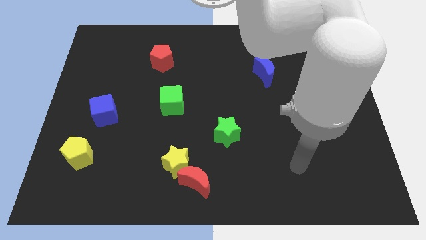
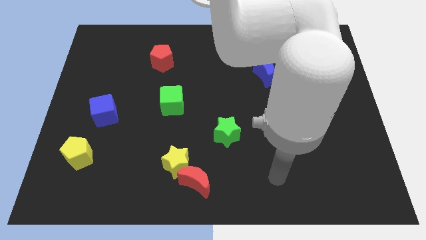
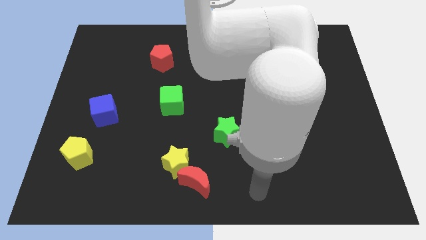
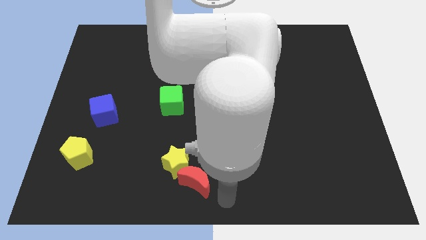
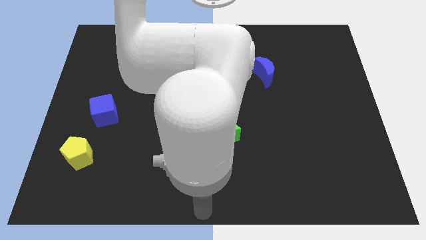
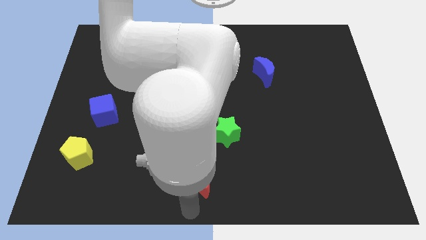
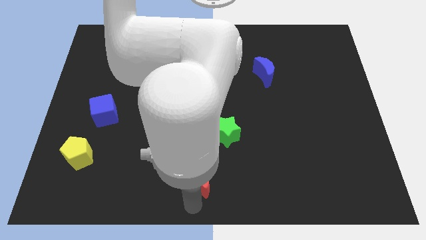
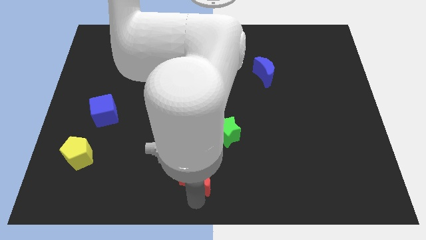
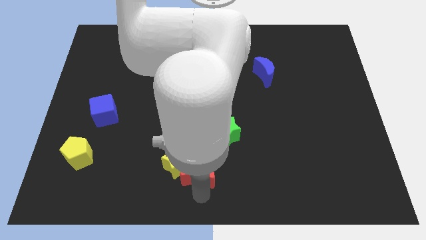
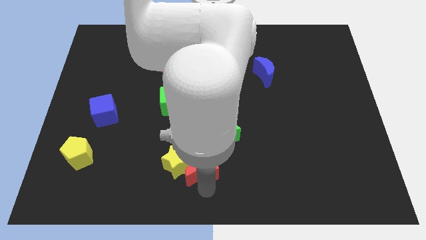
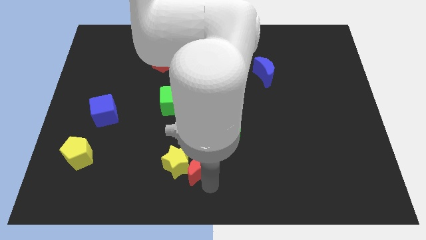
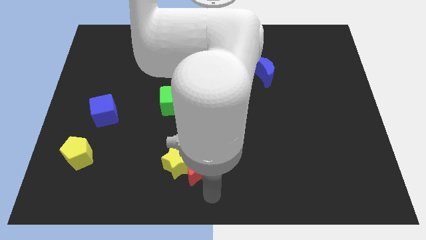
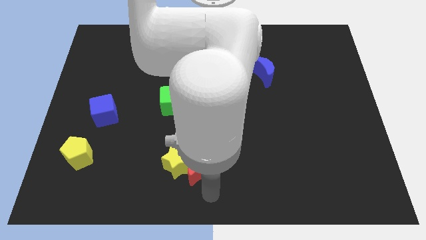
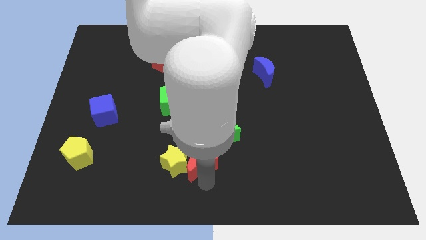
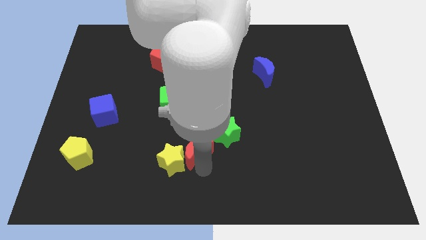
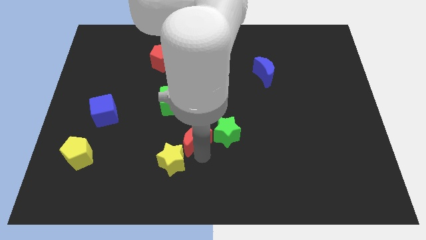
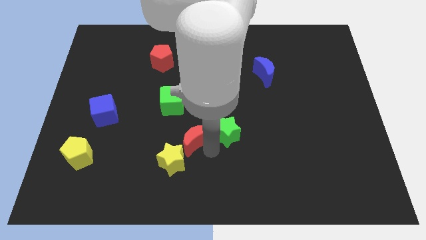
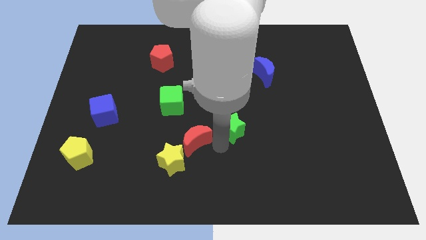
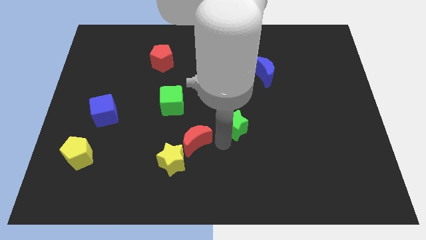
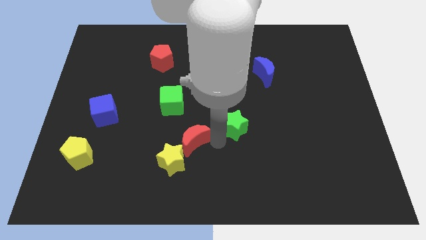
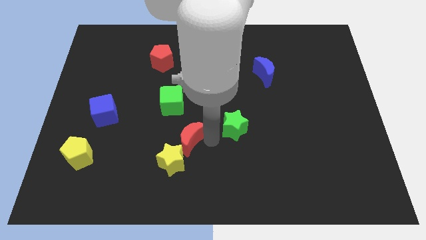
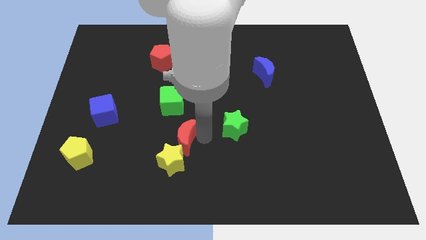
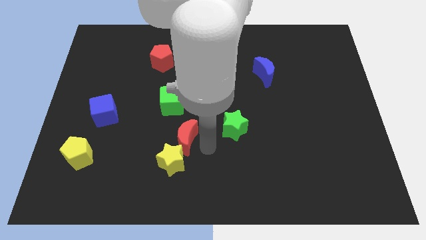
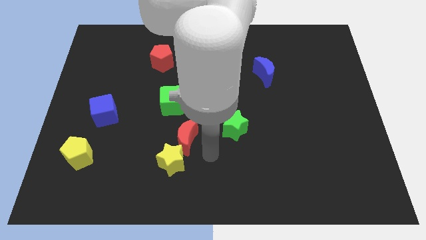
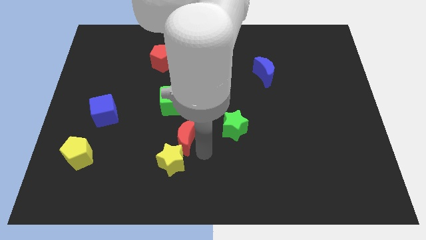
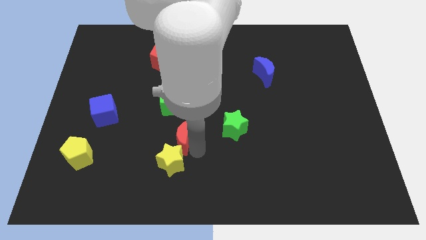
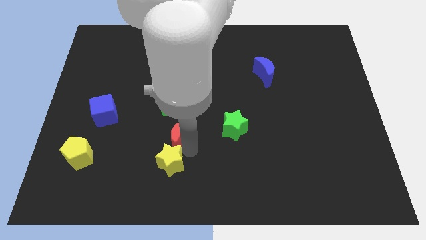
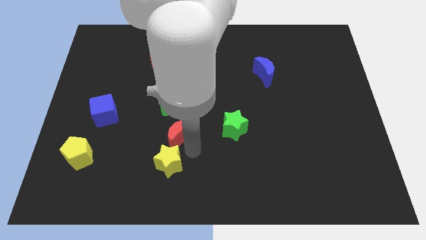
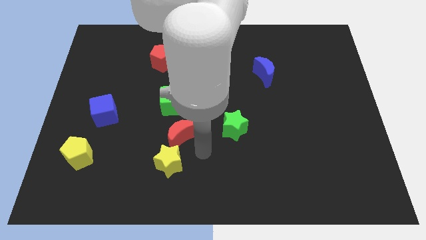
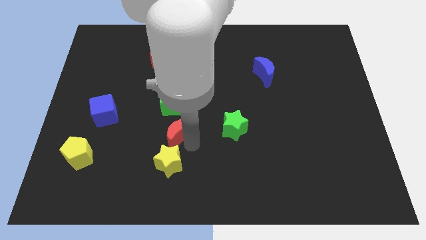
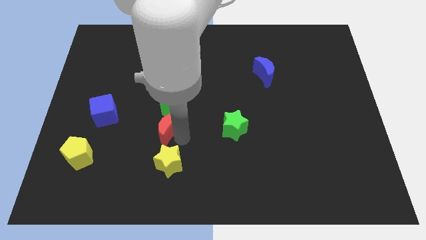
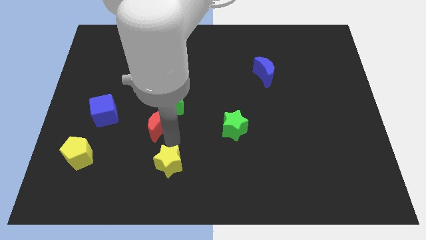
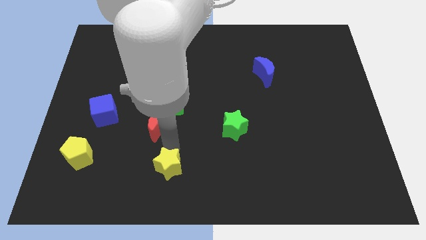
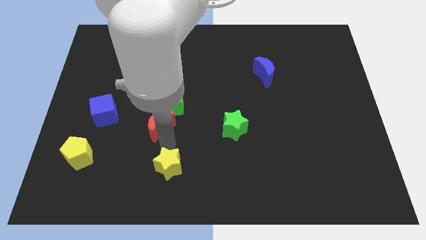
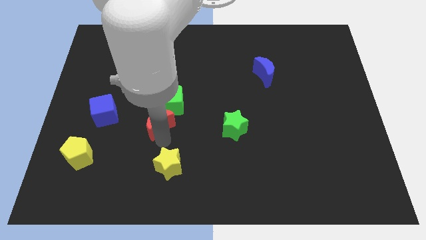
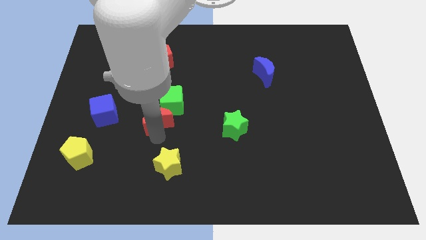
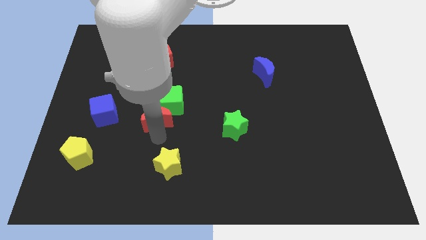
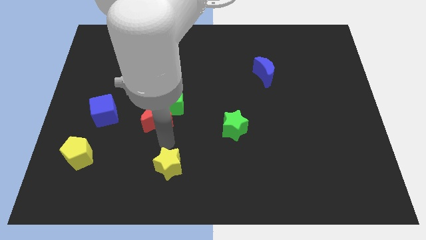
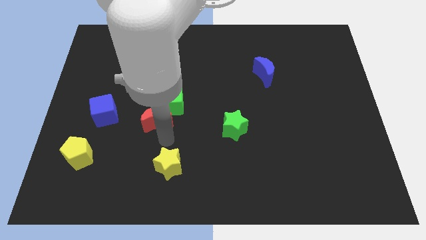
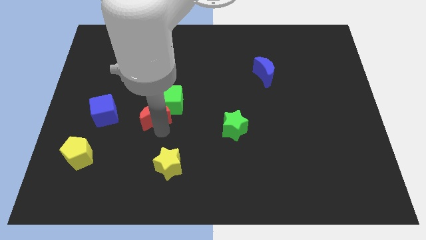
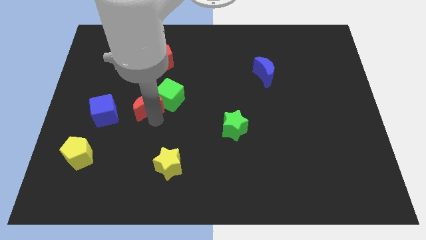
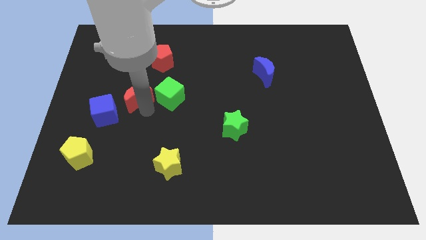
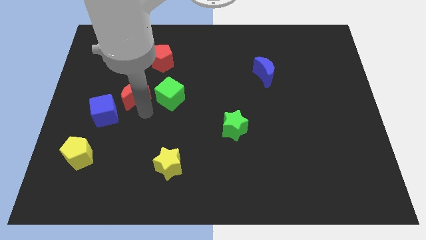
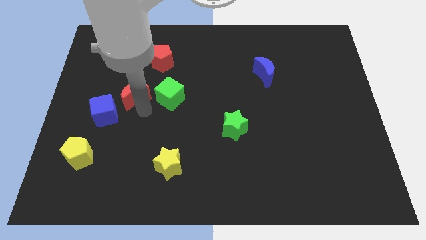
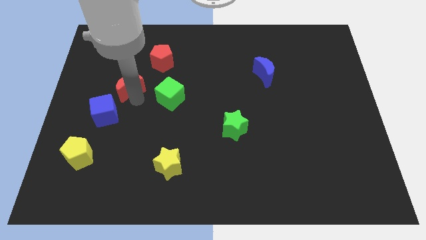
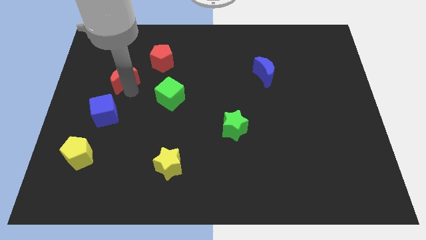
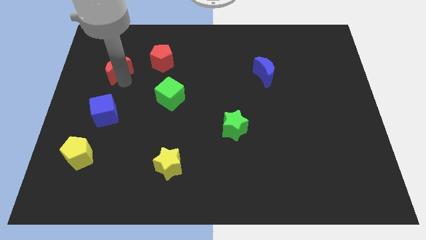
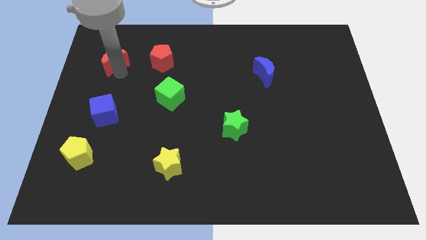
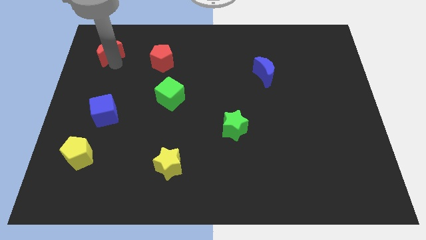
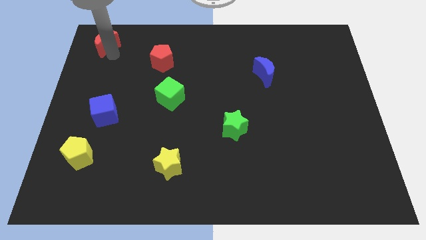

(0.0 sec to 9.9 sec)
slide the red moon to the upper left corner

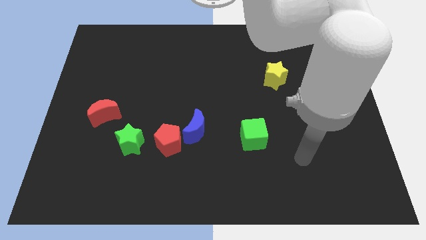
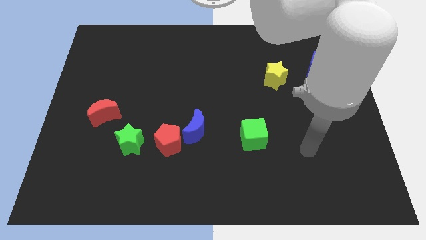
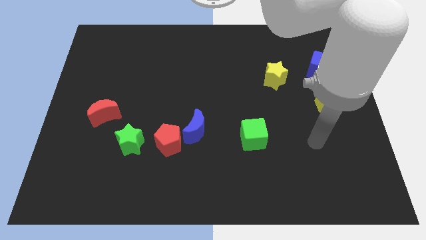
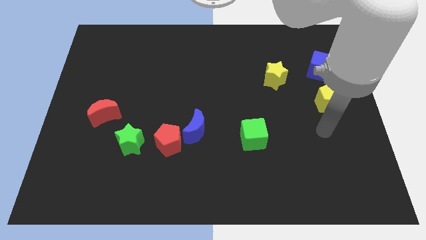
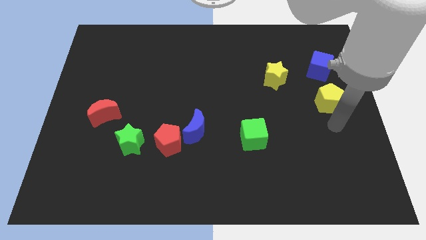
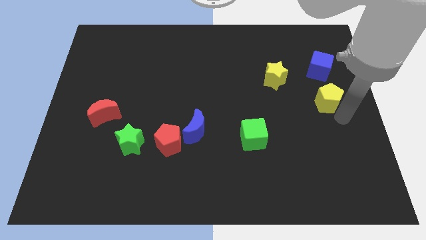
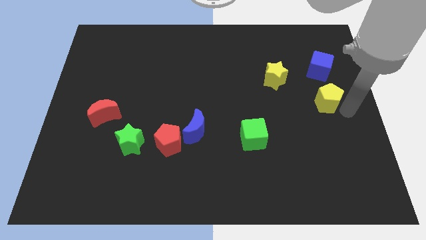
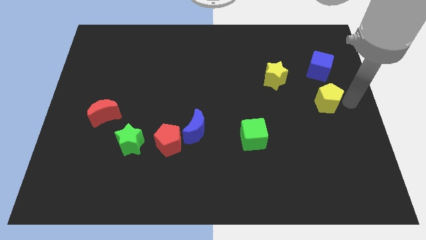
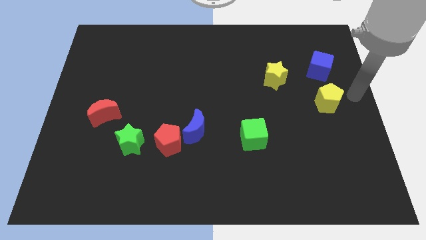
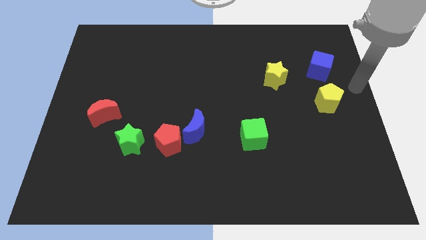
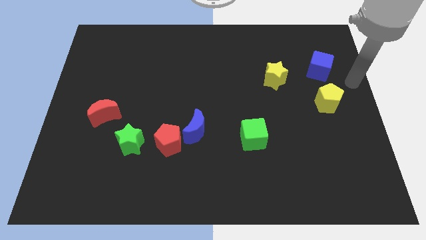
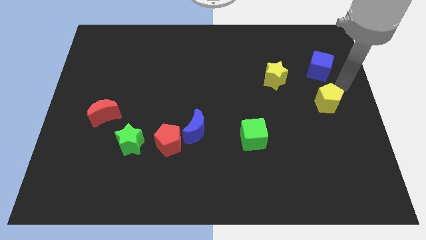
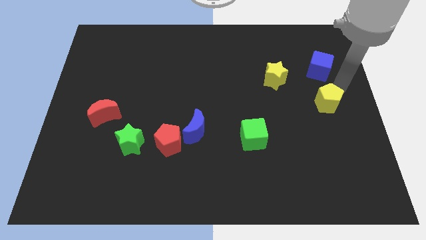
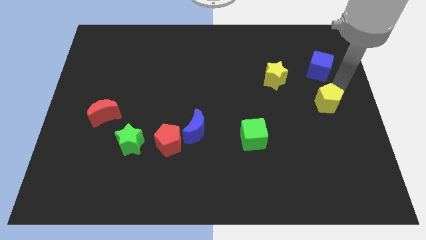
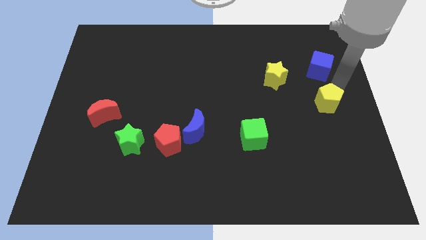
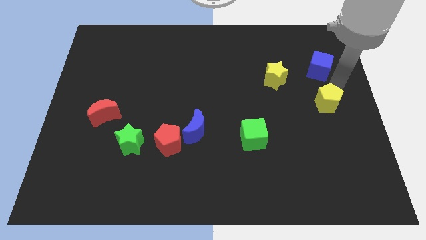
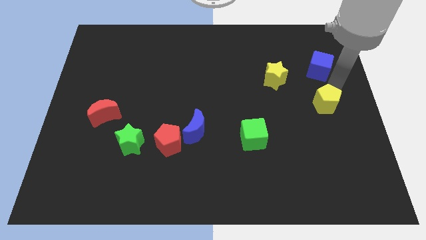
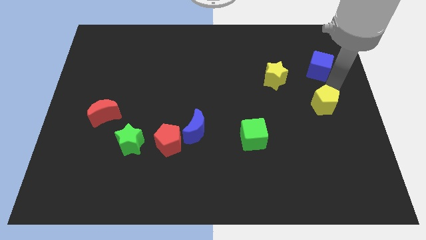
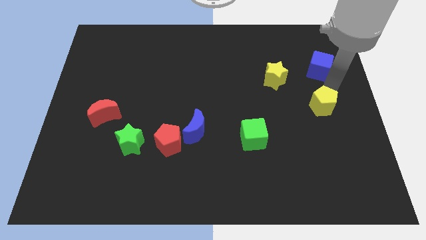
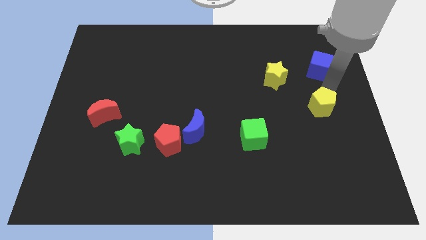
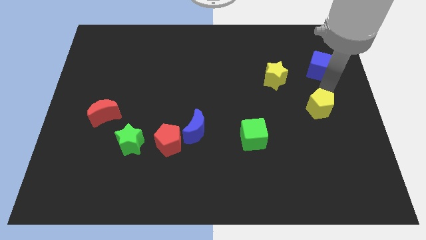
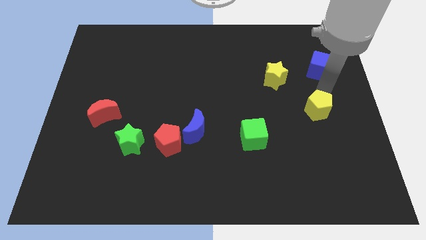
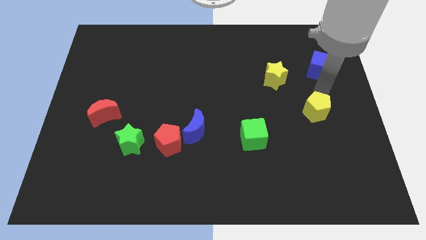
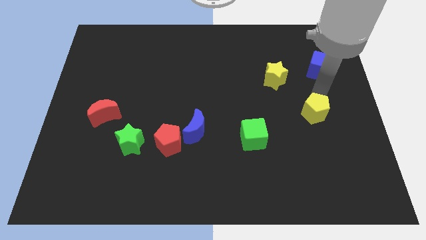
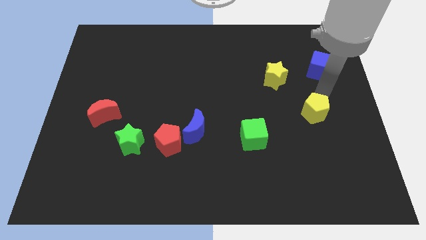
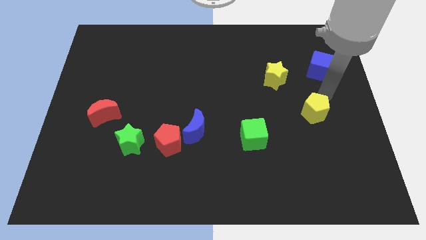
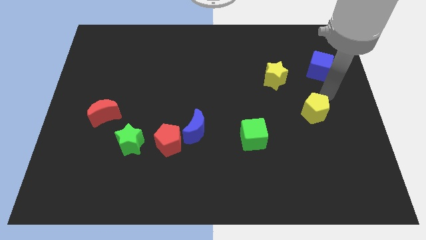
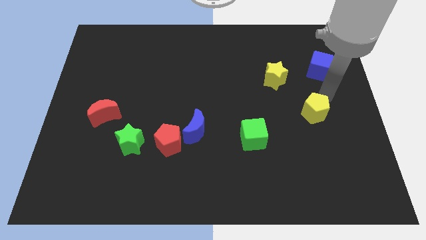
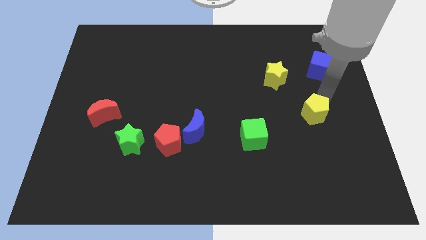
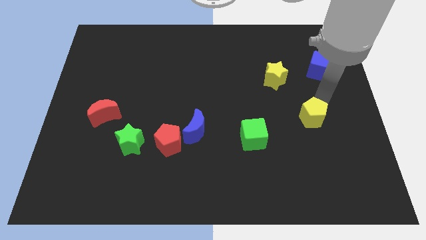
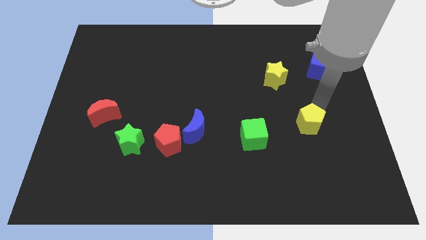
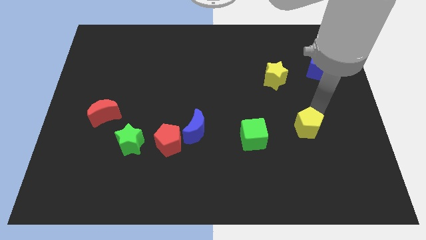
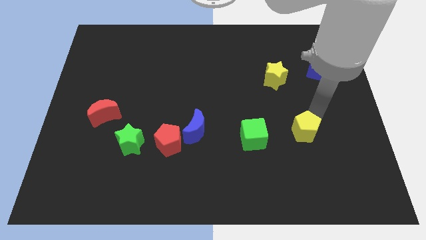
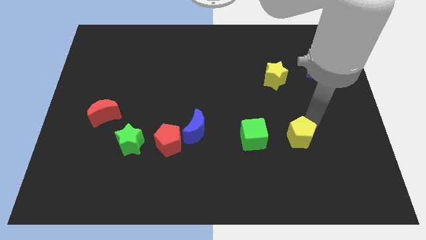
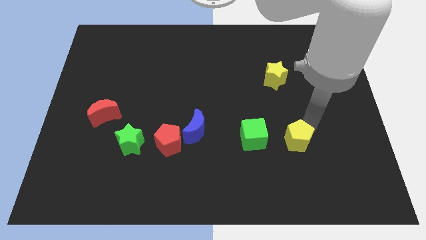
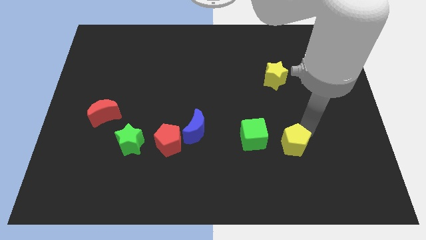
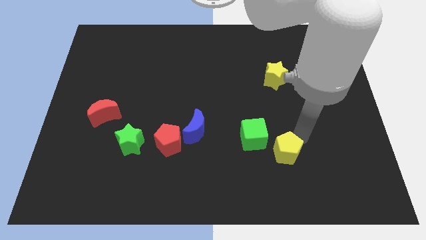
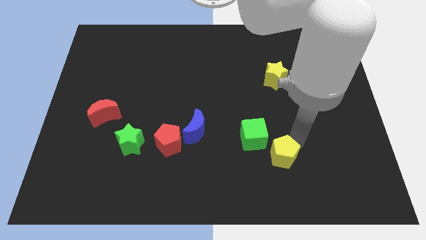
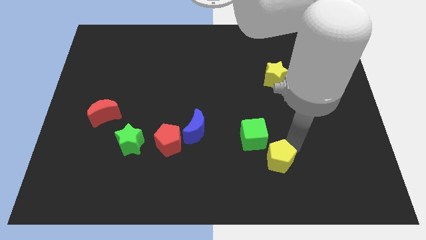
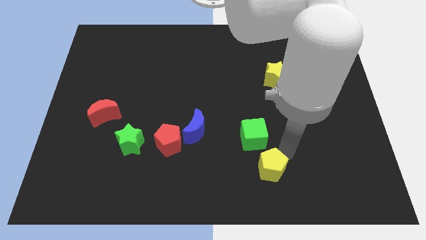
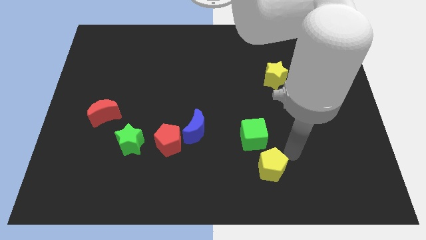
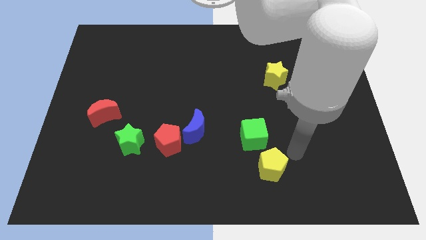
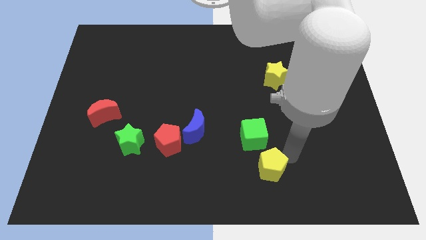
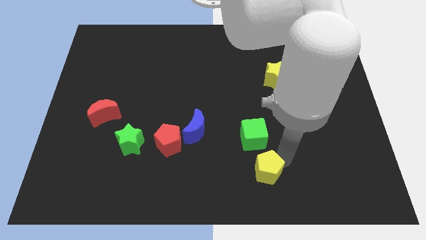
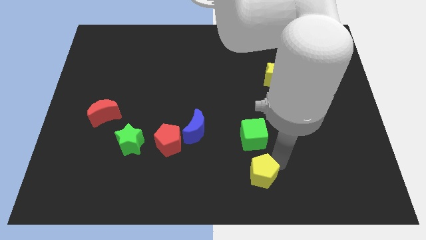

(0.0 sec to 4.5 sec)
move the yellow pentagon to the bottom
